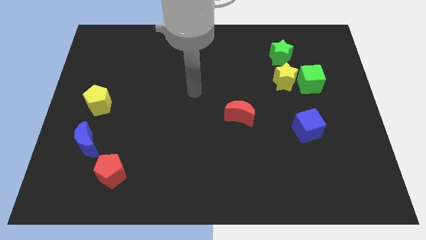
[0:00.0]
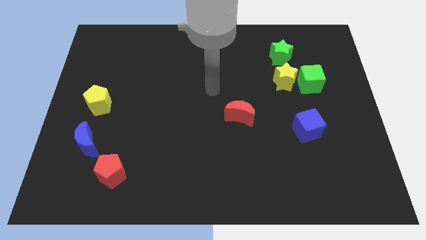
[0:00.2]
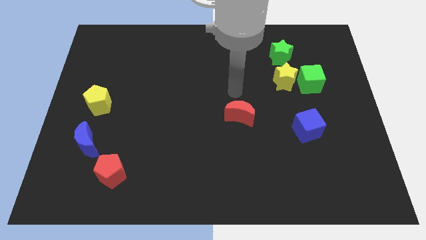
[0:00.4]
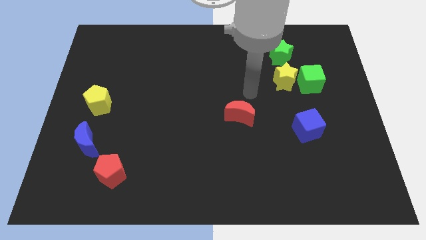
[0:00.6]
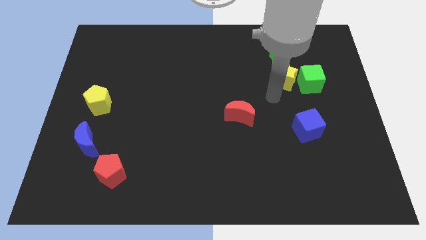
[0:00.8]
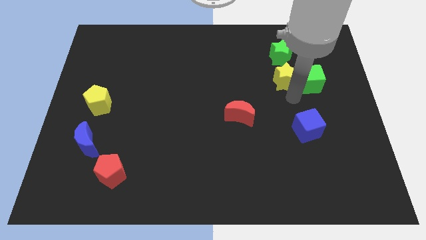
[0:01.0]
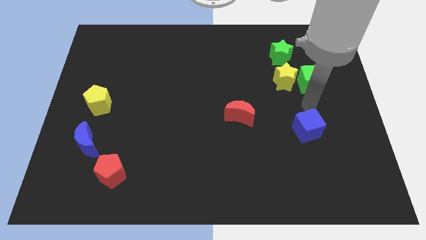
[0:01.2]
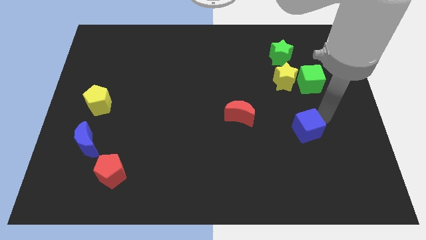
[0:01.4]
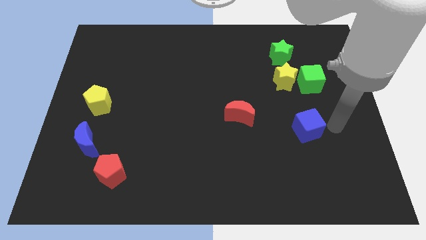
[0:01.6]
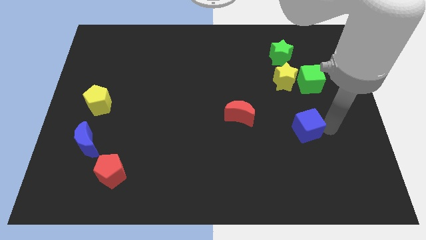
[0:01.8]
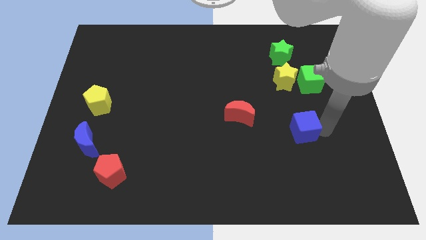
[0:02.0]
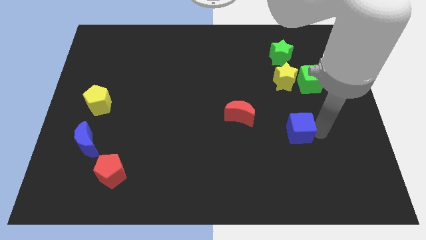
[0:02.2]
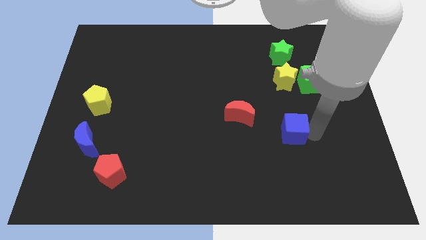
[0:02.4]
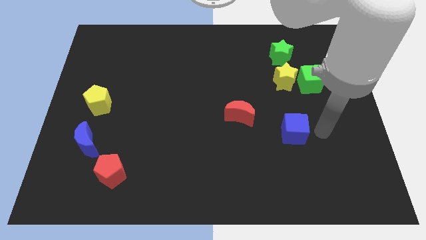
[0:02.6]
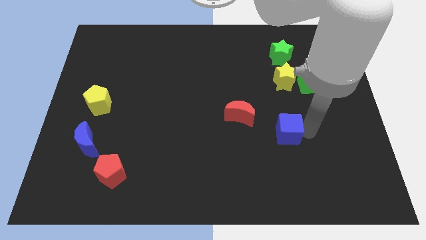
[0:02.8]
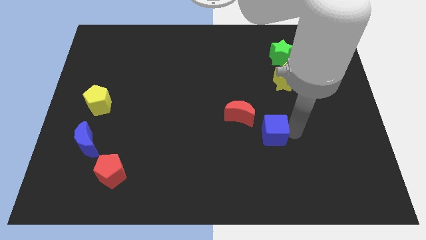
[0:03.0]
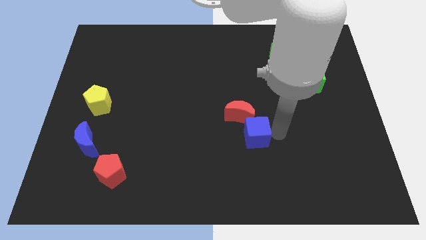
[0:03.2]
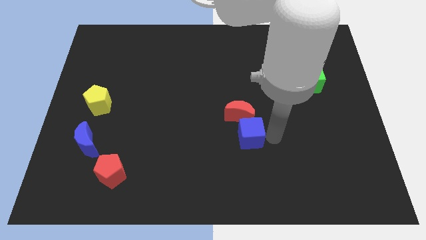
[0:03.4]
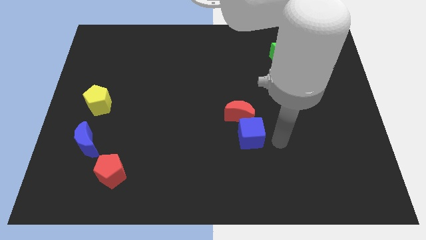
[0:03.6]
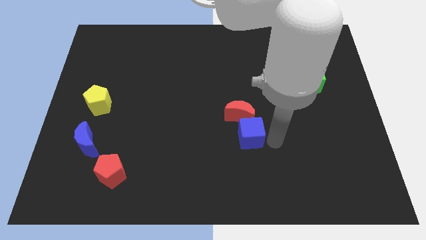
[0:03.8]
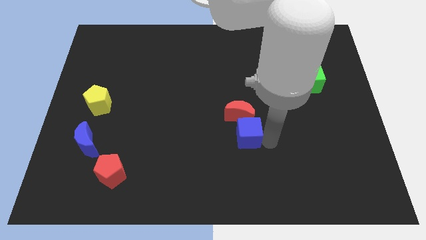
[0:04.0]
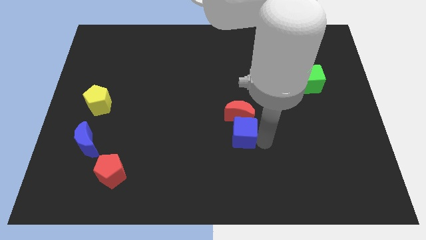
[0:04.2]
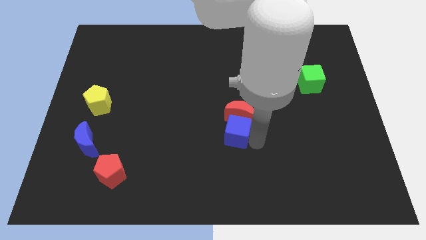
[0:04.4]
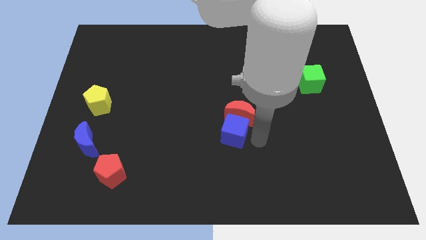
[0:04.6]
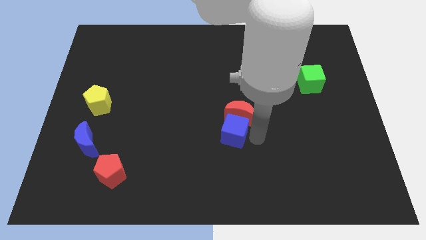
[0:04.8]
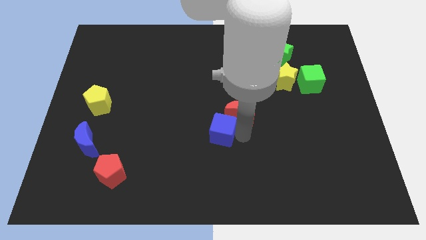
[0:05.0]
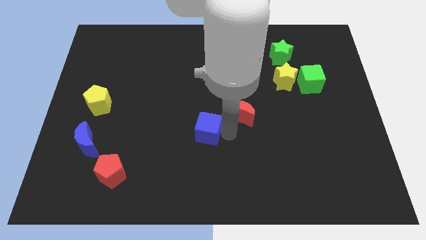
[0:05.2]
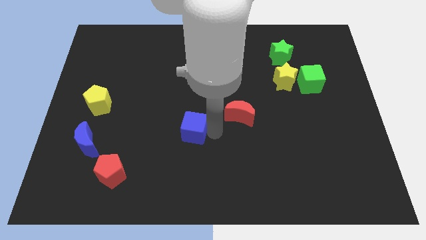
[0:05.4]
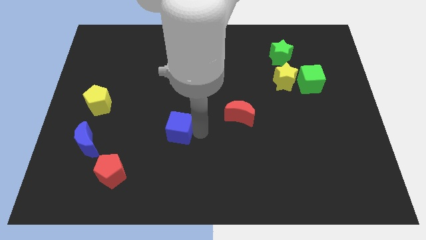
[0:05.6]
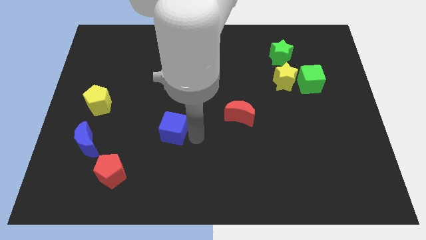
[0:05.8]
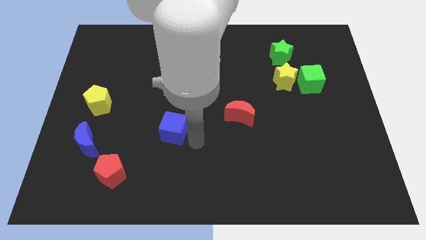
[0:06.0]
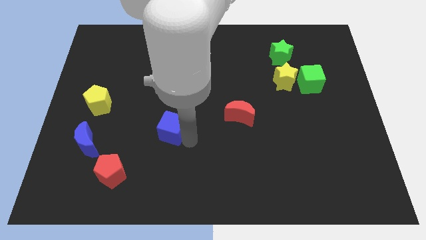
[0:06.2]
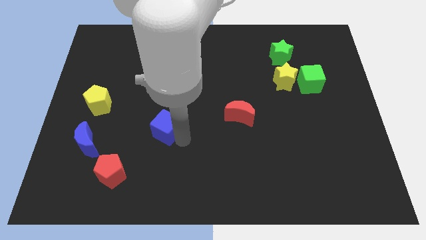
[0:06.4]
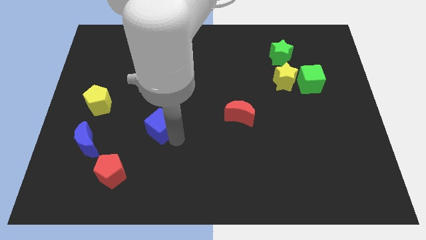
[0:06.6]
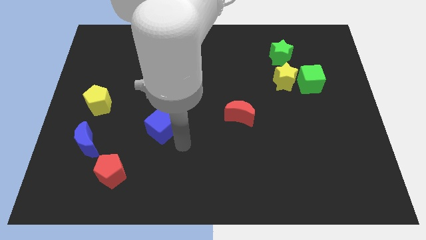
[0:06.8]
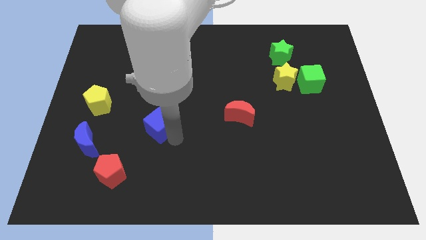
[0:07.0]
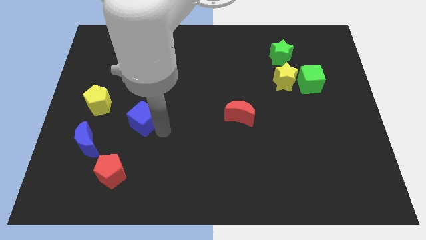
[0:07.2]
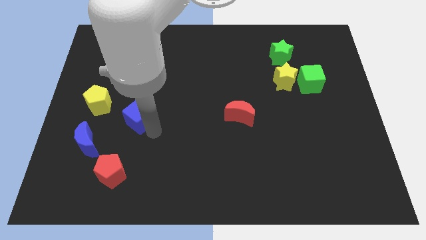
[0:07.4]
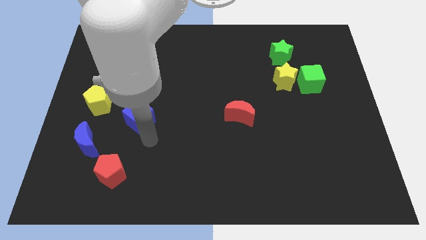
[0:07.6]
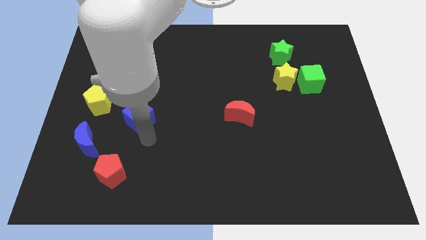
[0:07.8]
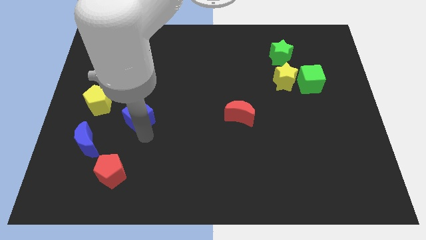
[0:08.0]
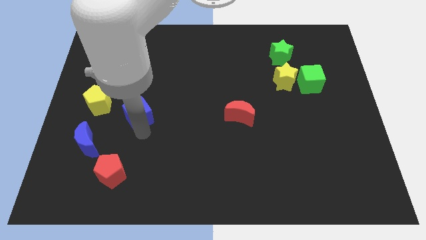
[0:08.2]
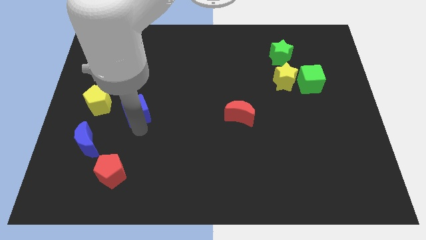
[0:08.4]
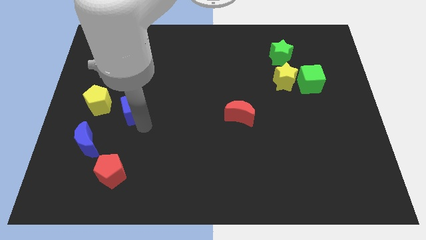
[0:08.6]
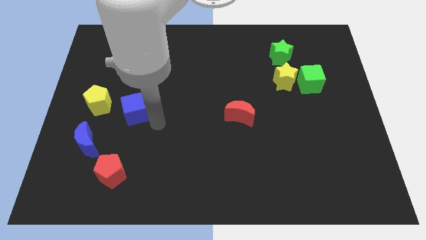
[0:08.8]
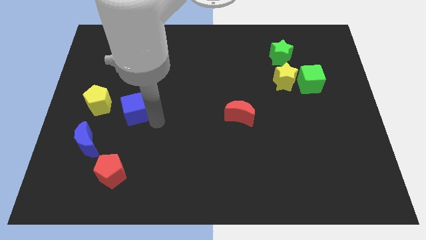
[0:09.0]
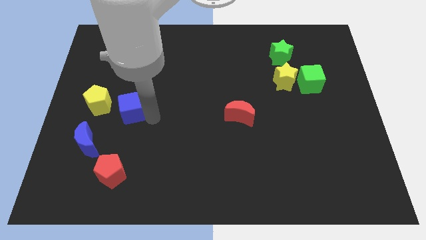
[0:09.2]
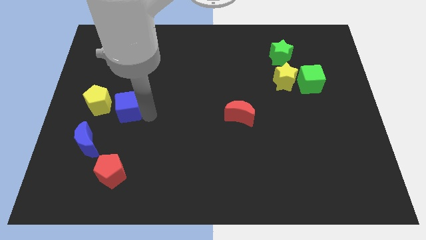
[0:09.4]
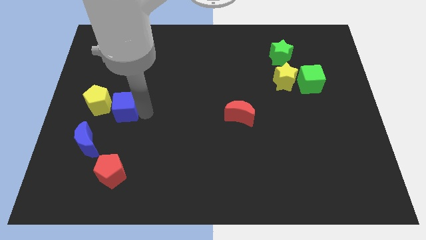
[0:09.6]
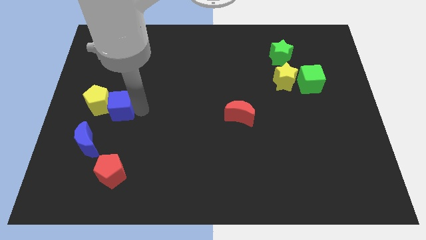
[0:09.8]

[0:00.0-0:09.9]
move the blue cube towards the yellow pentagon

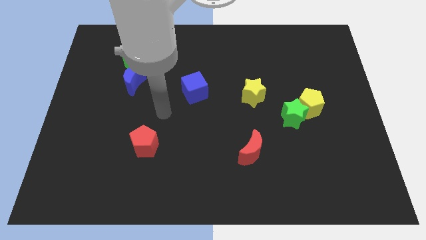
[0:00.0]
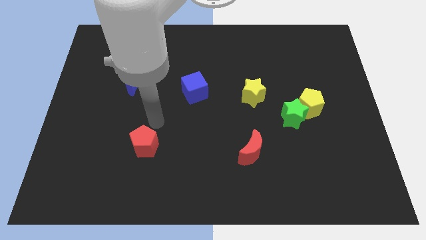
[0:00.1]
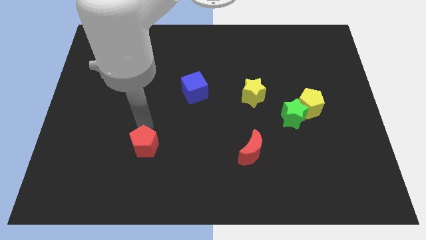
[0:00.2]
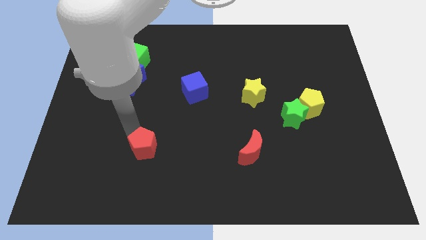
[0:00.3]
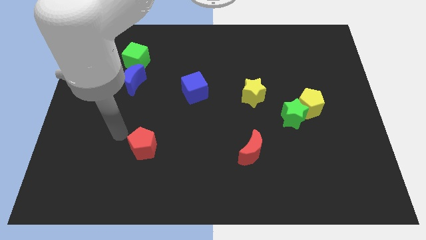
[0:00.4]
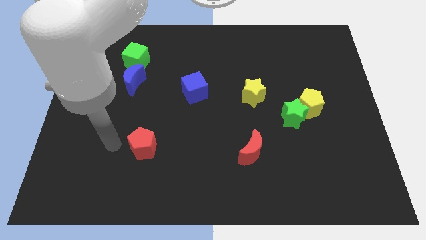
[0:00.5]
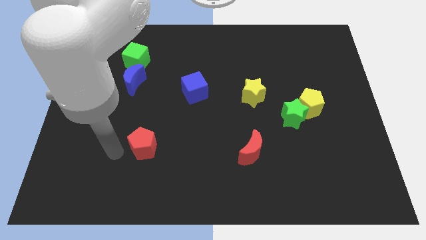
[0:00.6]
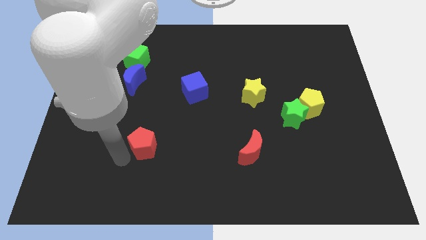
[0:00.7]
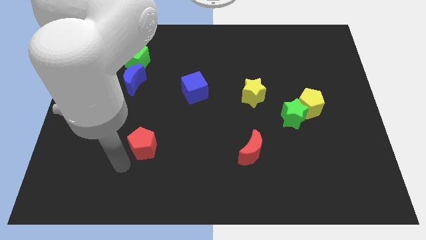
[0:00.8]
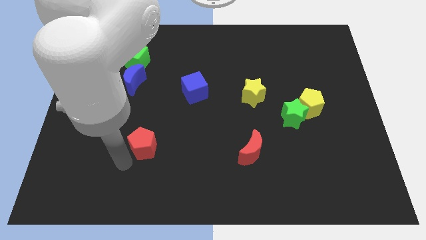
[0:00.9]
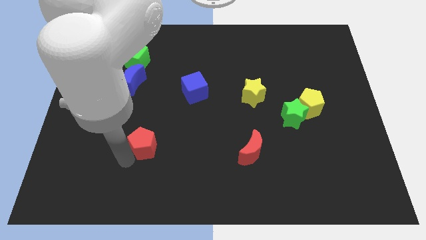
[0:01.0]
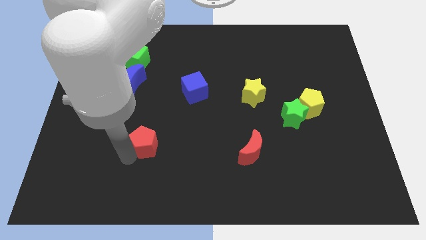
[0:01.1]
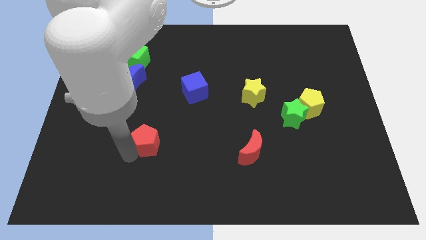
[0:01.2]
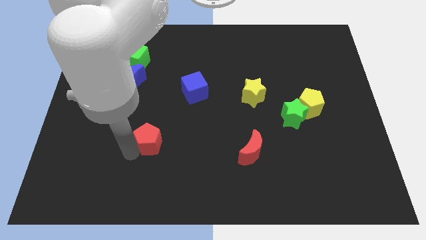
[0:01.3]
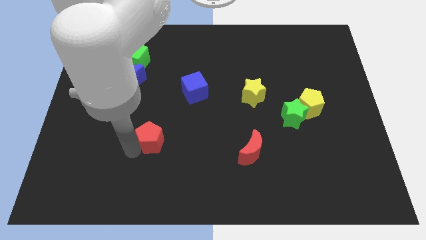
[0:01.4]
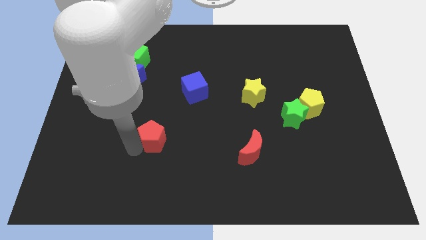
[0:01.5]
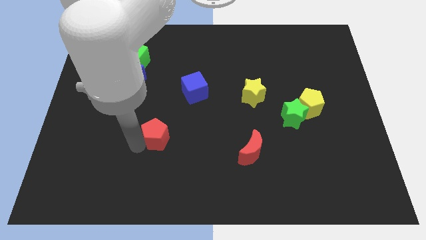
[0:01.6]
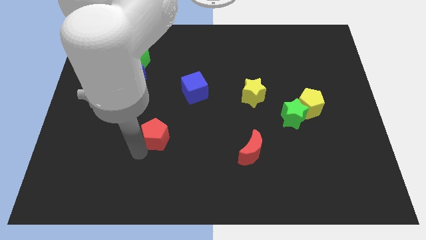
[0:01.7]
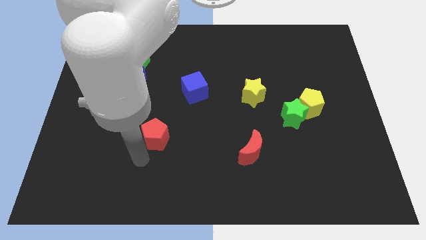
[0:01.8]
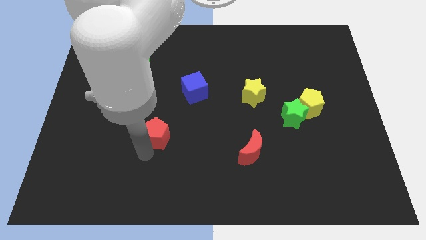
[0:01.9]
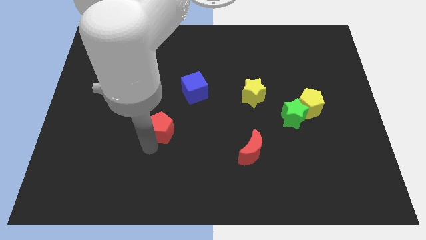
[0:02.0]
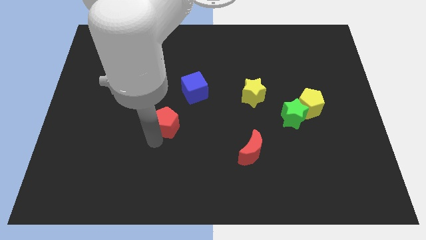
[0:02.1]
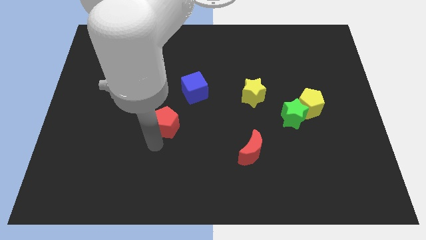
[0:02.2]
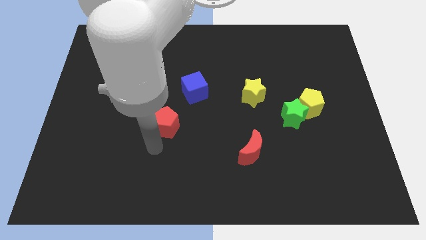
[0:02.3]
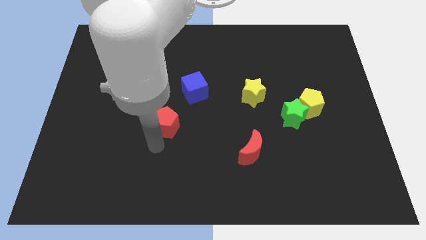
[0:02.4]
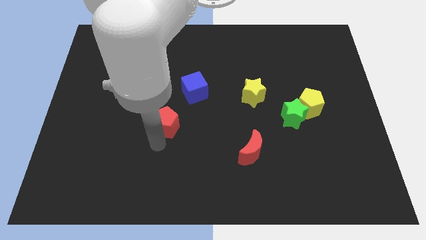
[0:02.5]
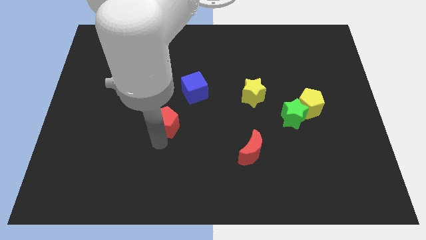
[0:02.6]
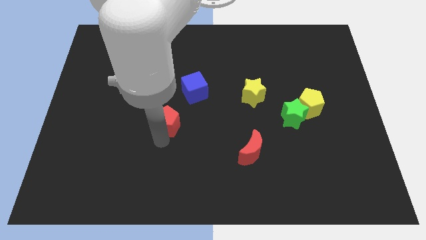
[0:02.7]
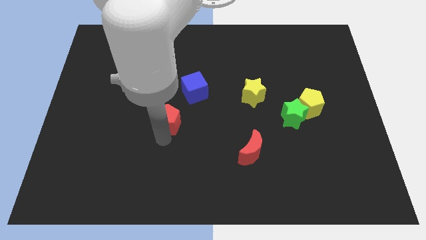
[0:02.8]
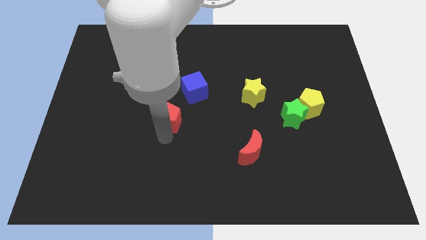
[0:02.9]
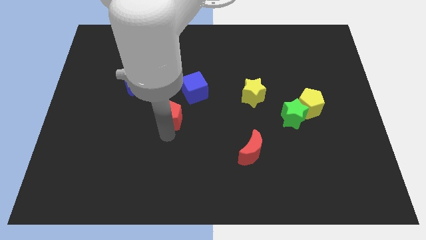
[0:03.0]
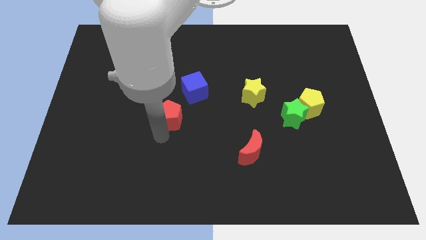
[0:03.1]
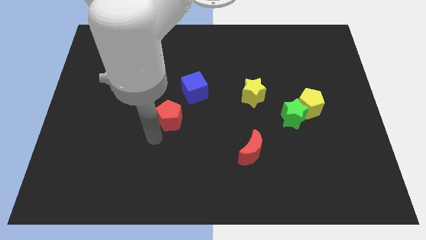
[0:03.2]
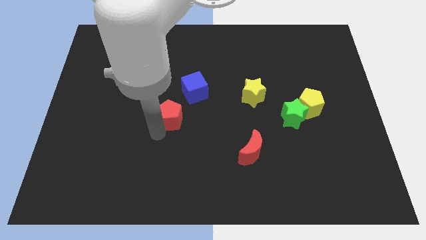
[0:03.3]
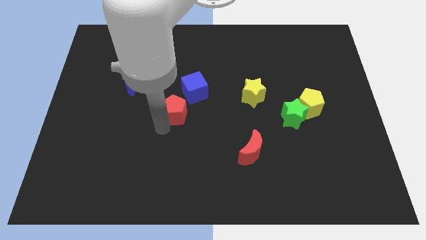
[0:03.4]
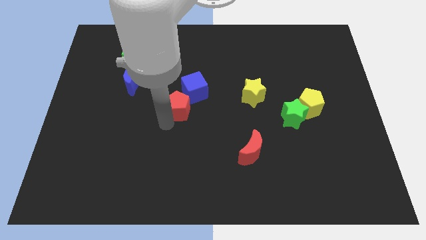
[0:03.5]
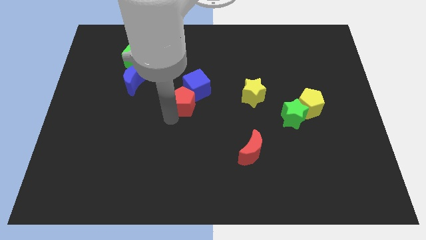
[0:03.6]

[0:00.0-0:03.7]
slide the red pentagon to the blue cube
